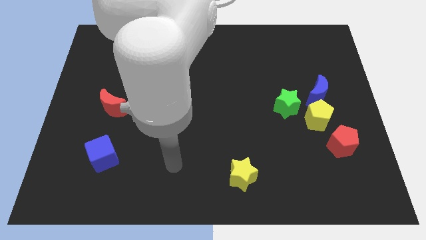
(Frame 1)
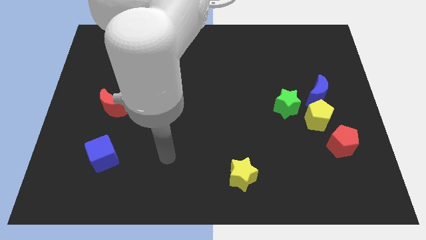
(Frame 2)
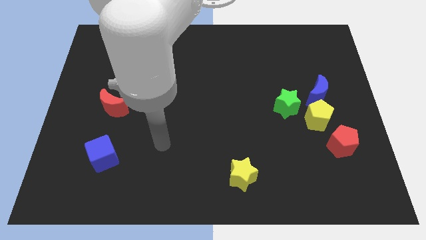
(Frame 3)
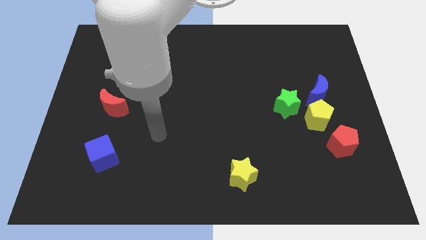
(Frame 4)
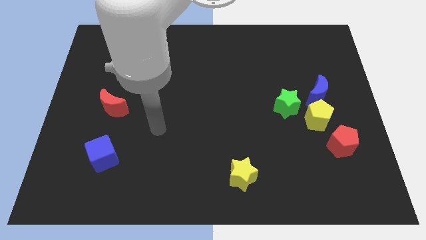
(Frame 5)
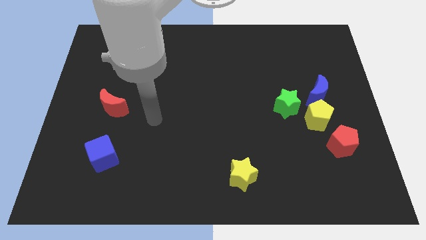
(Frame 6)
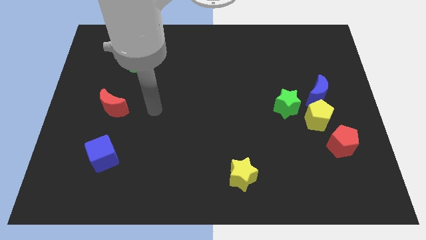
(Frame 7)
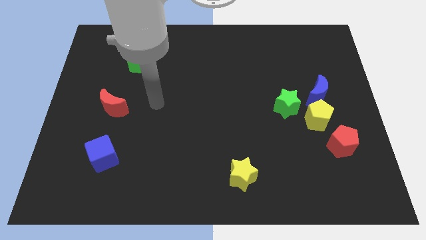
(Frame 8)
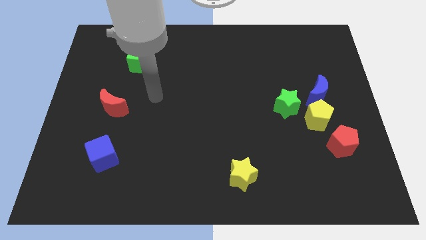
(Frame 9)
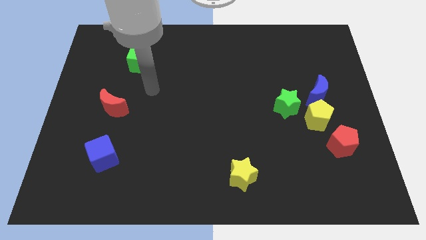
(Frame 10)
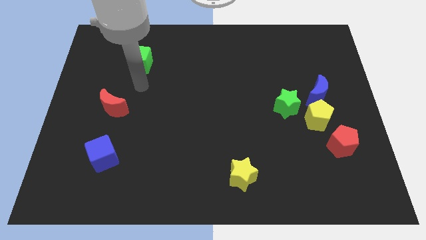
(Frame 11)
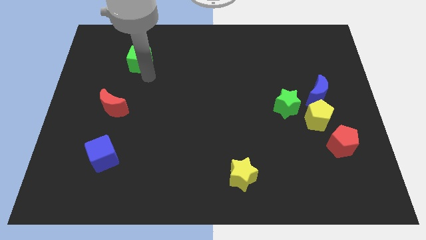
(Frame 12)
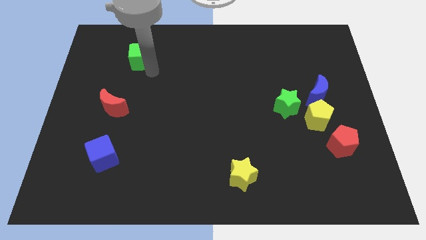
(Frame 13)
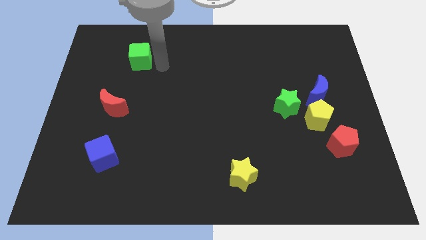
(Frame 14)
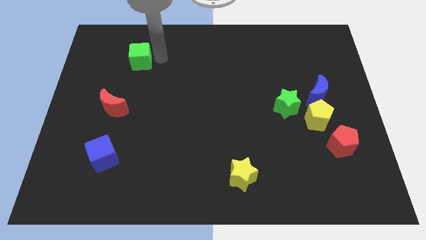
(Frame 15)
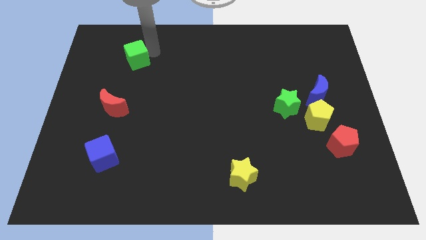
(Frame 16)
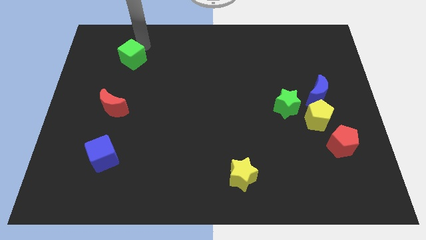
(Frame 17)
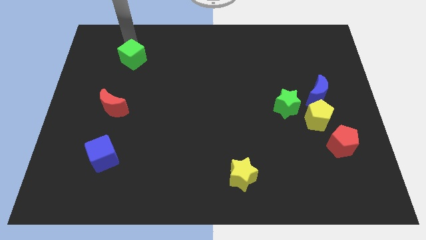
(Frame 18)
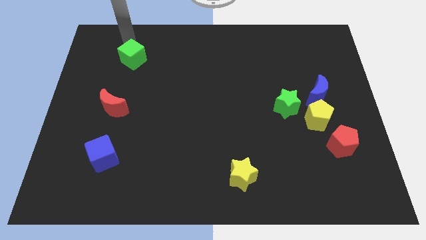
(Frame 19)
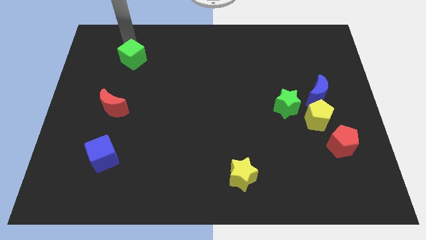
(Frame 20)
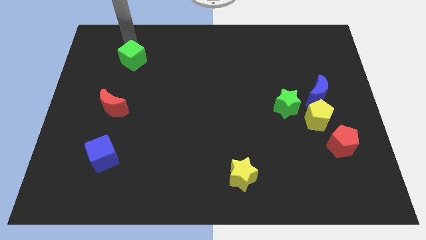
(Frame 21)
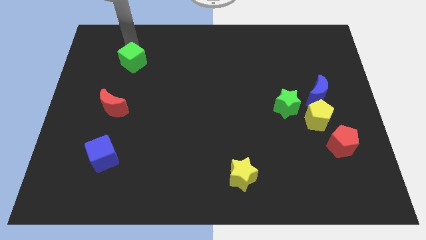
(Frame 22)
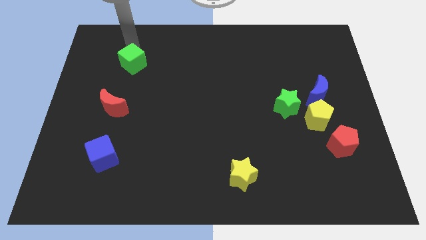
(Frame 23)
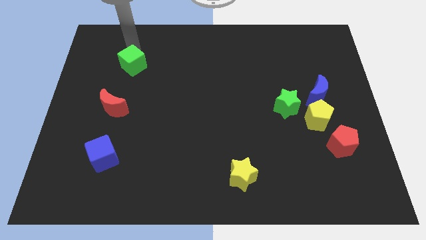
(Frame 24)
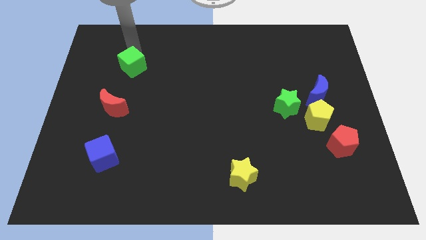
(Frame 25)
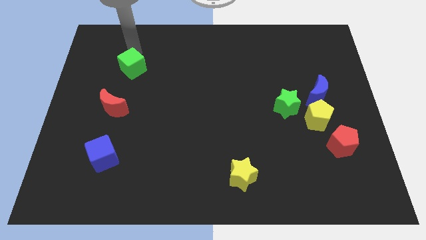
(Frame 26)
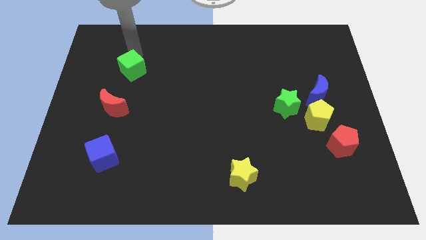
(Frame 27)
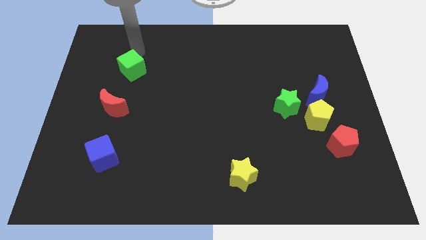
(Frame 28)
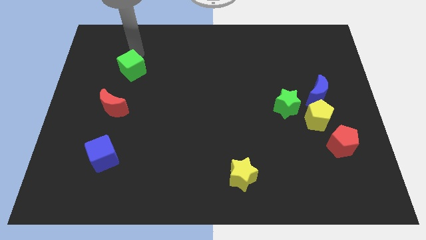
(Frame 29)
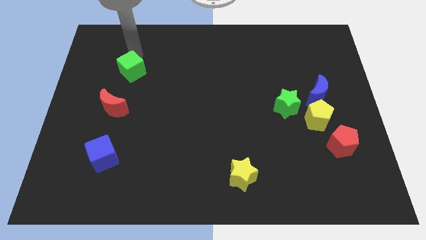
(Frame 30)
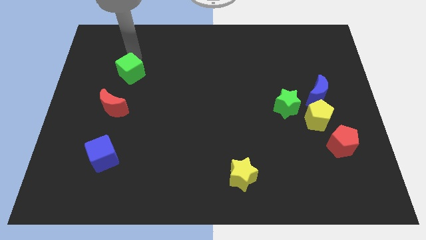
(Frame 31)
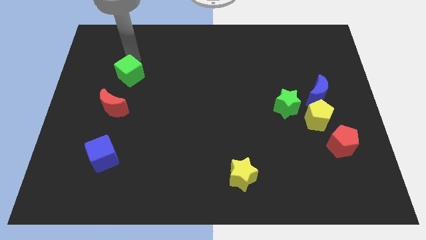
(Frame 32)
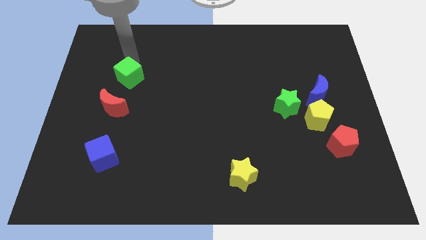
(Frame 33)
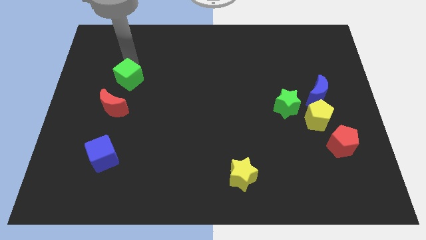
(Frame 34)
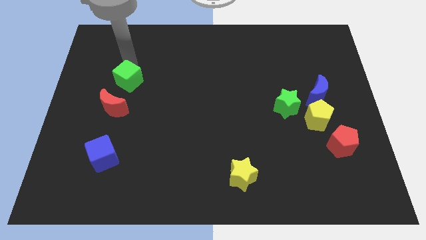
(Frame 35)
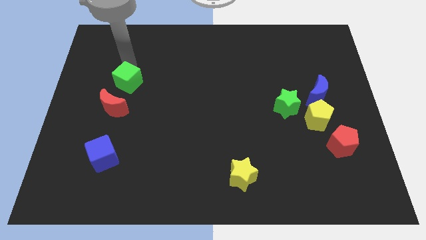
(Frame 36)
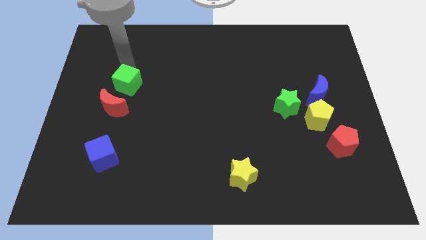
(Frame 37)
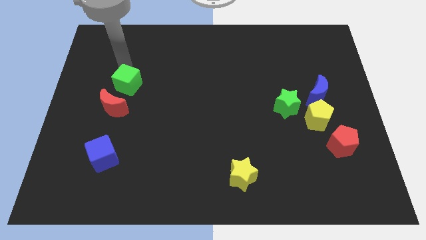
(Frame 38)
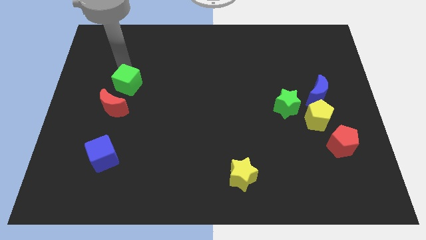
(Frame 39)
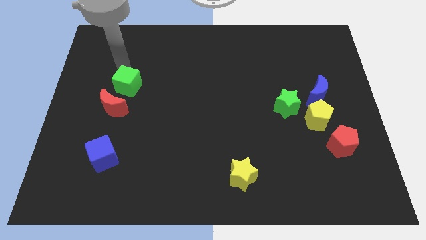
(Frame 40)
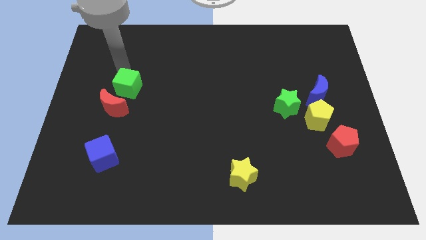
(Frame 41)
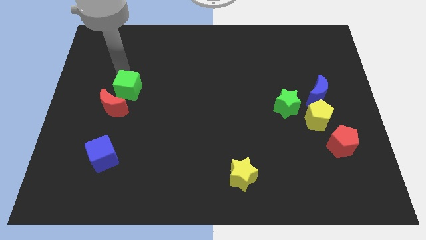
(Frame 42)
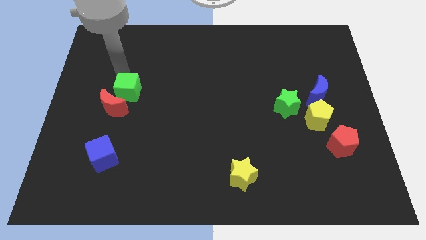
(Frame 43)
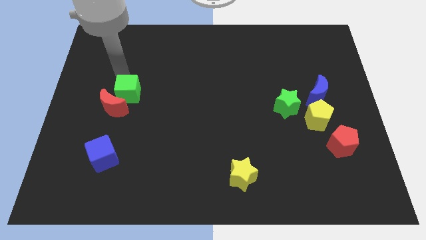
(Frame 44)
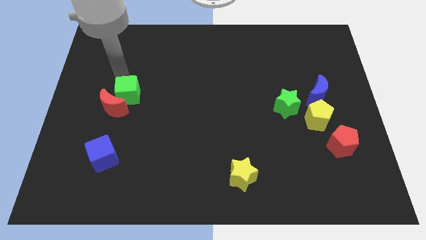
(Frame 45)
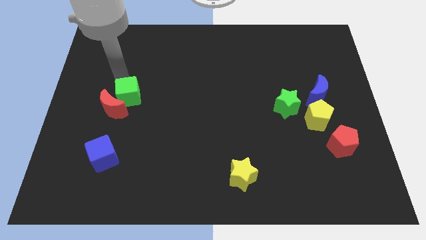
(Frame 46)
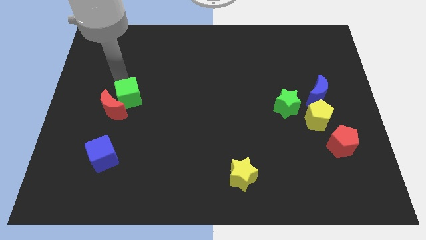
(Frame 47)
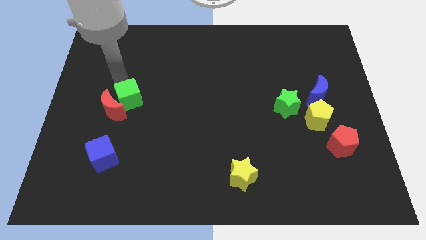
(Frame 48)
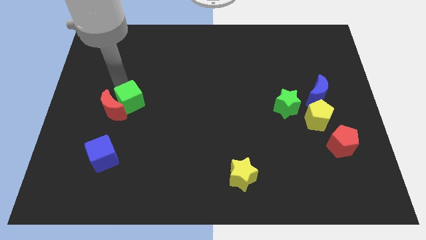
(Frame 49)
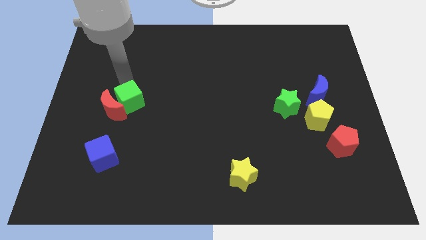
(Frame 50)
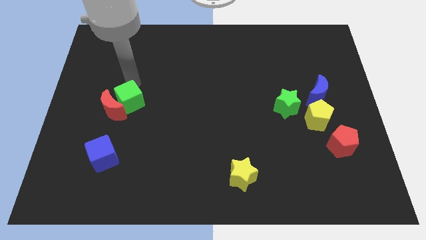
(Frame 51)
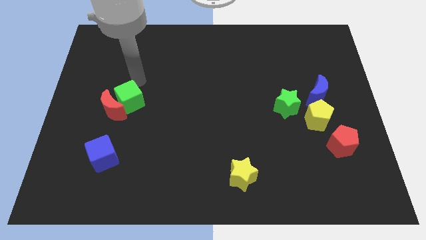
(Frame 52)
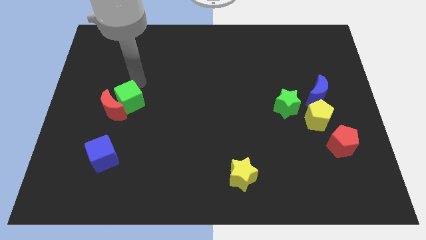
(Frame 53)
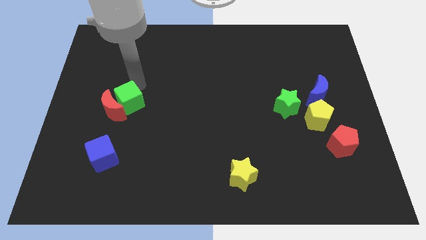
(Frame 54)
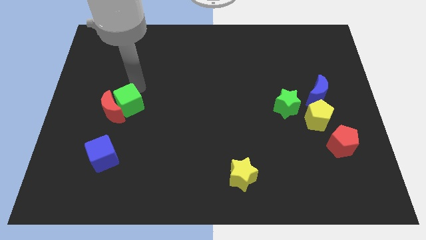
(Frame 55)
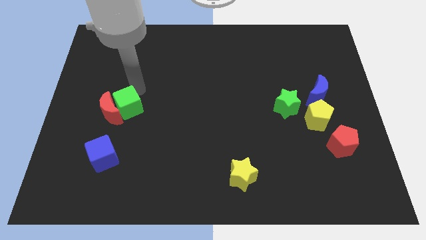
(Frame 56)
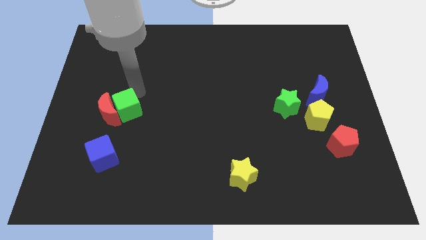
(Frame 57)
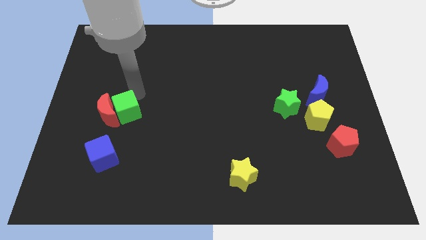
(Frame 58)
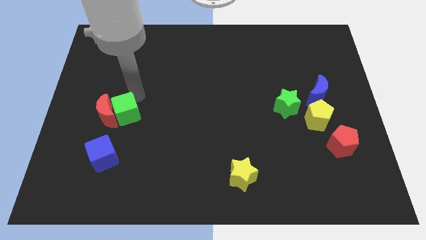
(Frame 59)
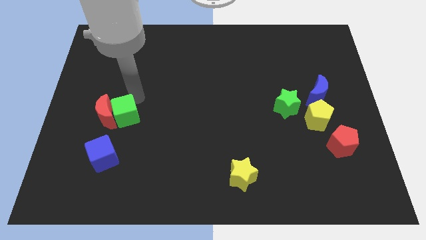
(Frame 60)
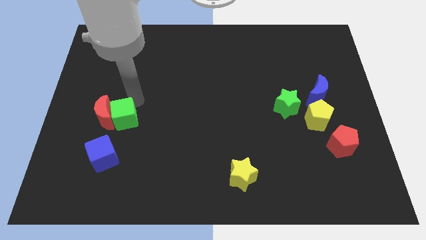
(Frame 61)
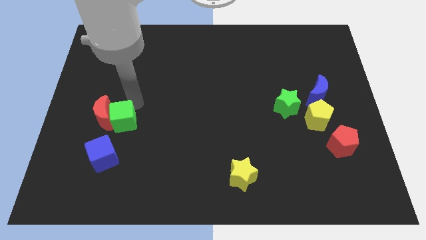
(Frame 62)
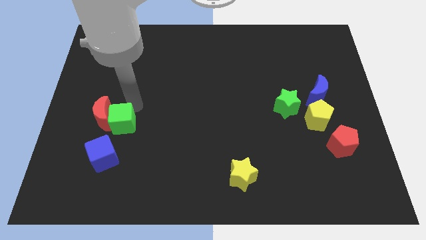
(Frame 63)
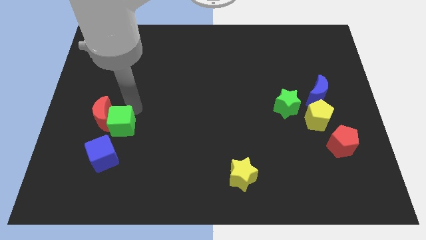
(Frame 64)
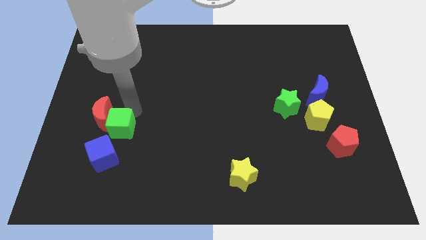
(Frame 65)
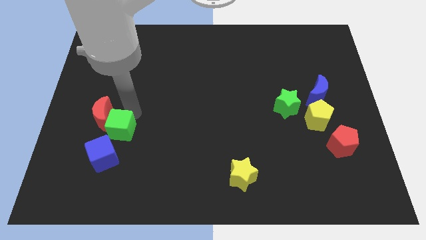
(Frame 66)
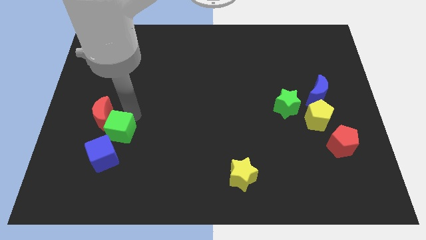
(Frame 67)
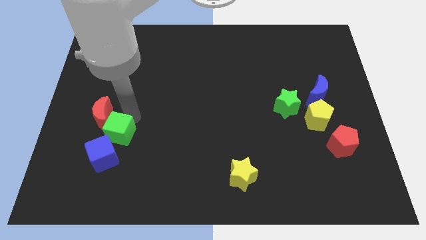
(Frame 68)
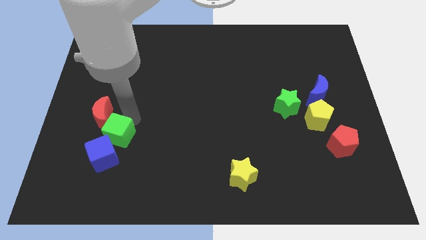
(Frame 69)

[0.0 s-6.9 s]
push the green cube towards the blue cube
